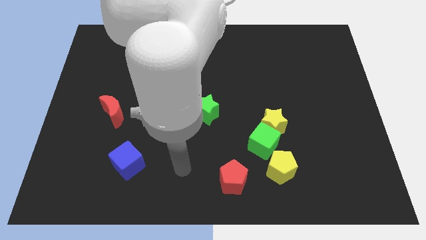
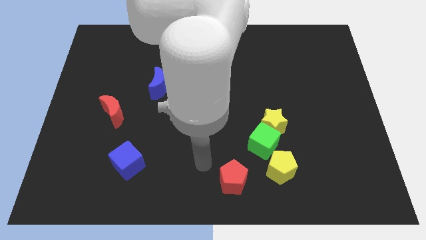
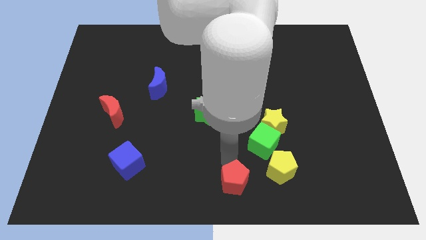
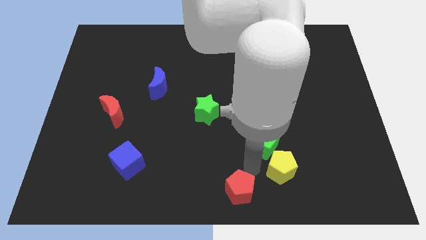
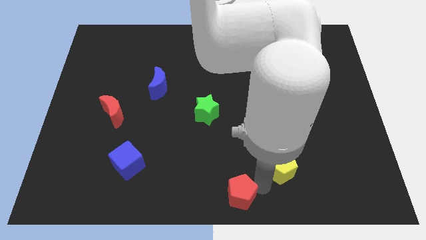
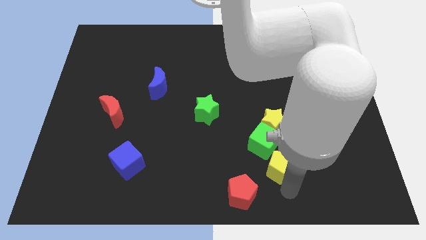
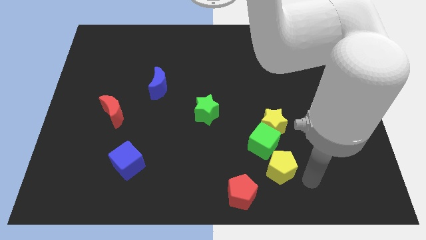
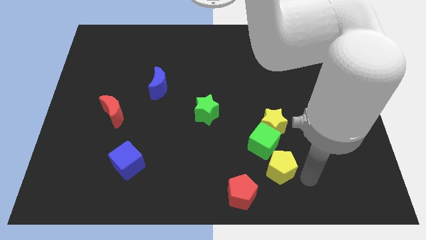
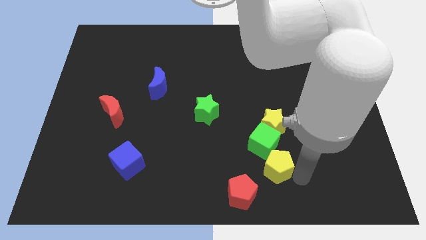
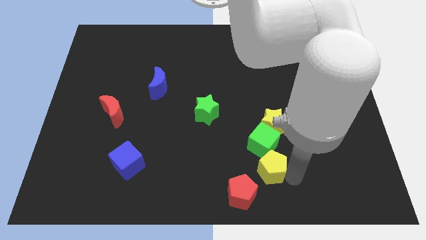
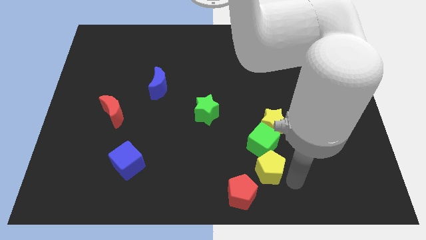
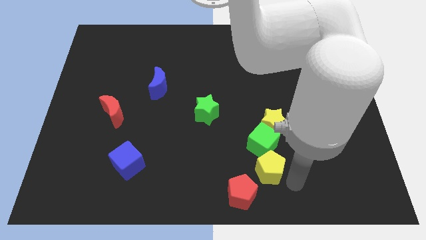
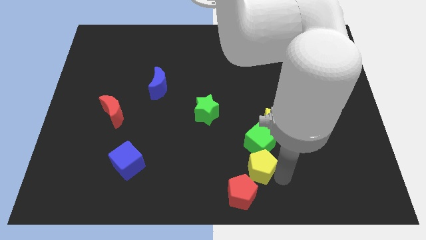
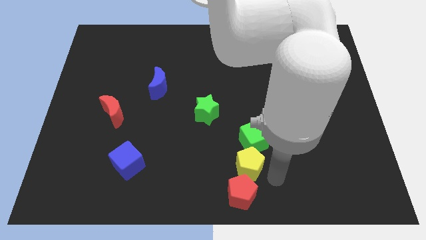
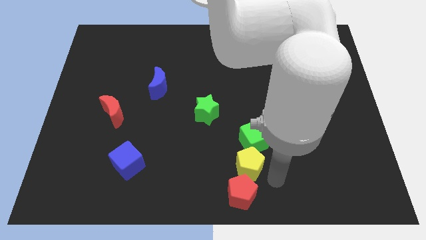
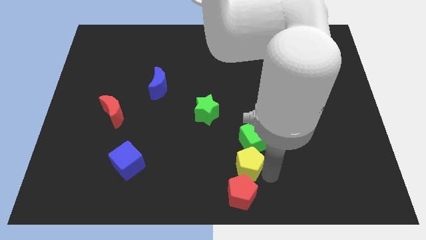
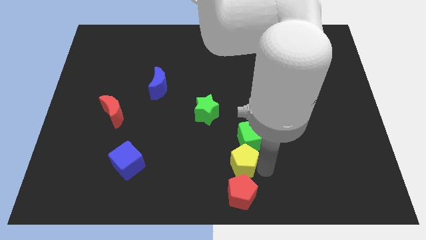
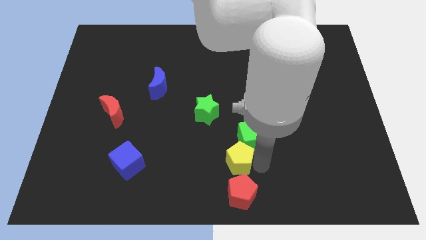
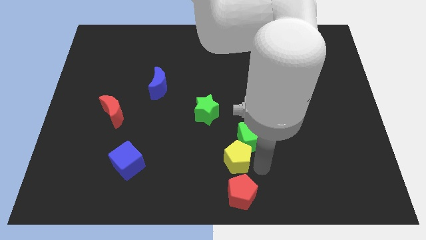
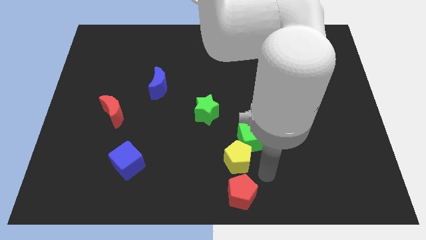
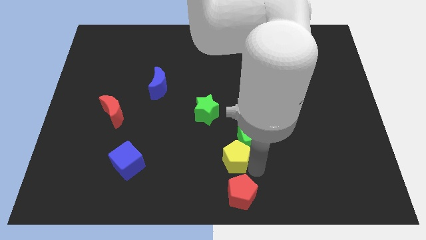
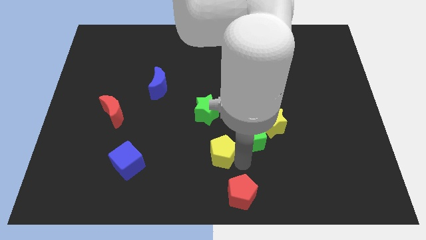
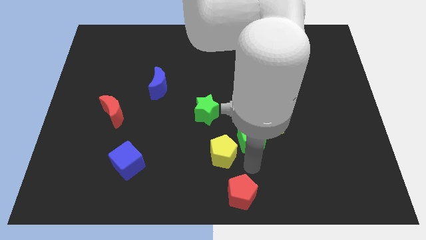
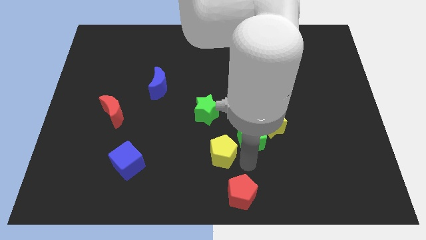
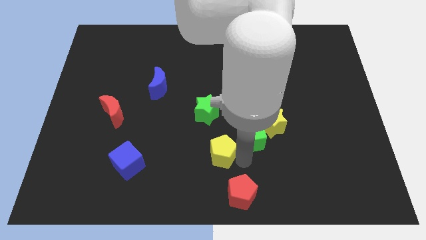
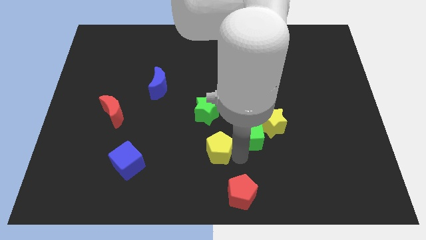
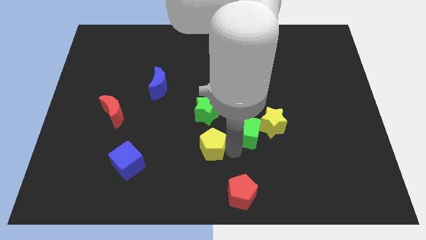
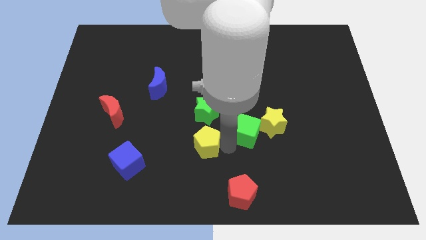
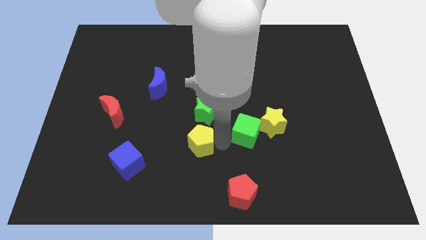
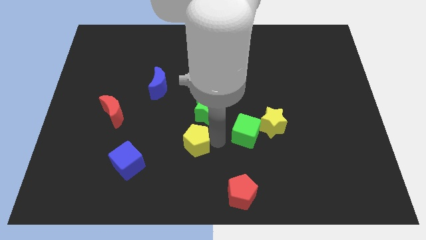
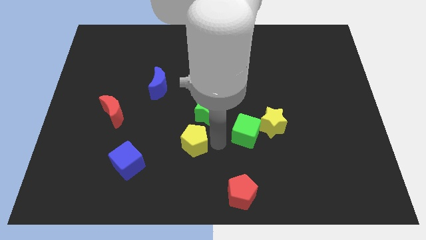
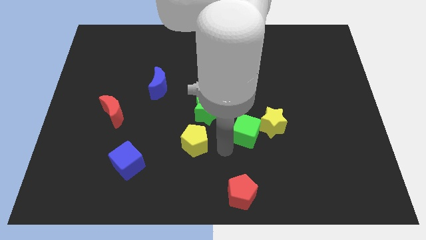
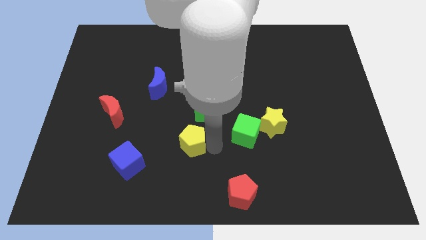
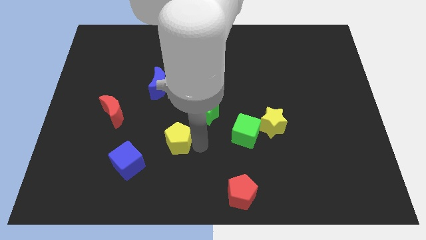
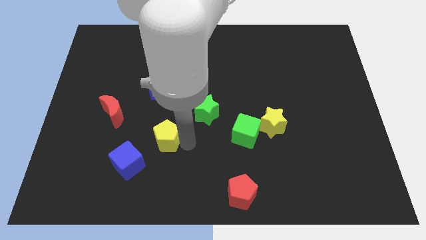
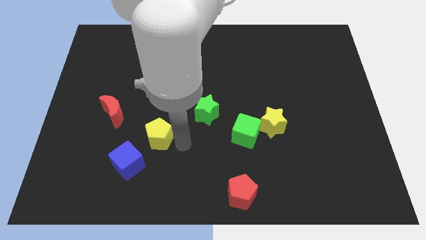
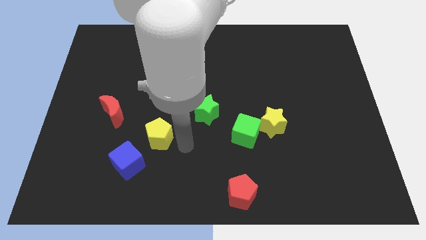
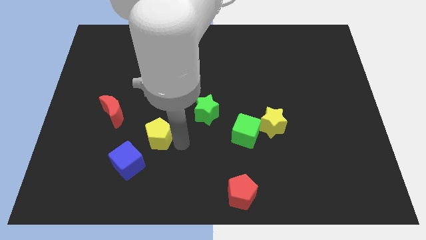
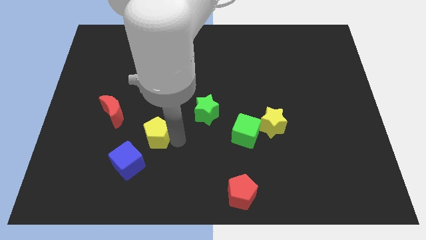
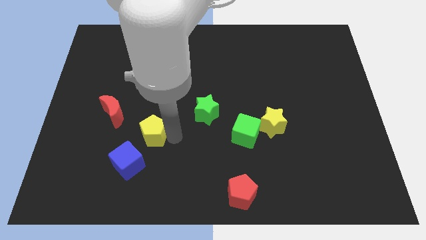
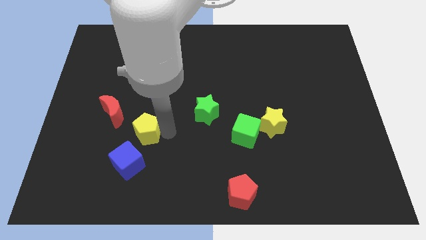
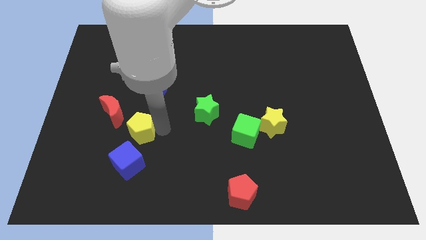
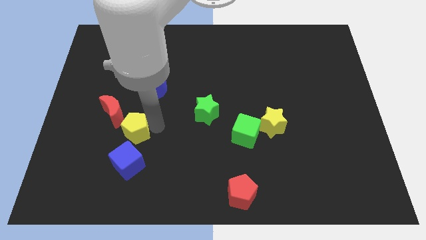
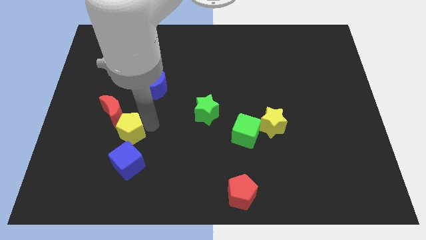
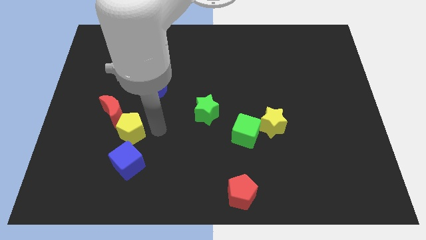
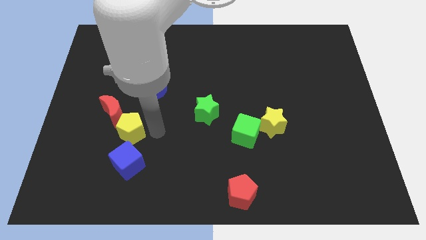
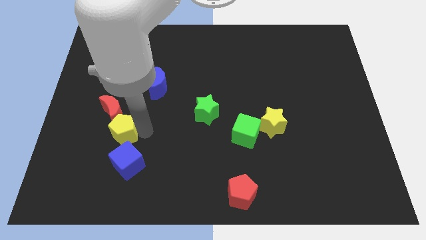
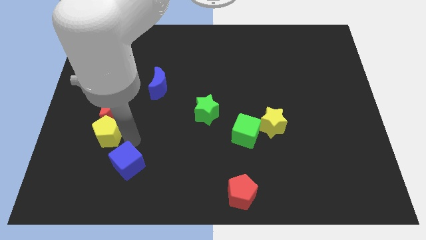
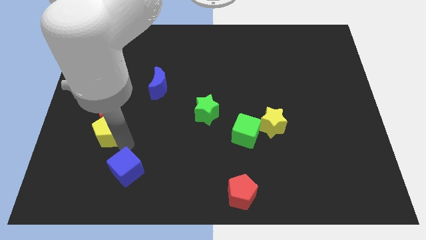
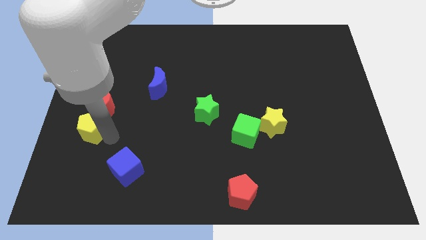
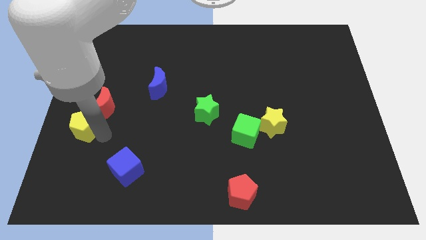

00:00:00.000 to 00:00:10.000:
slide the yellow pentagon to the center left

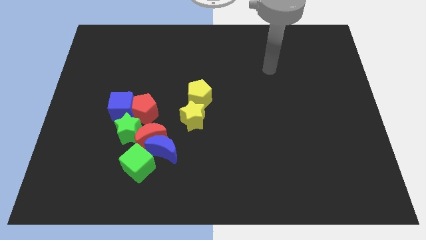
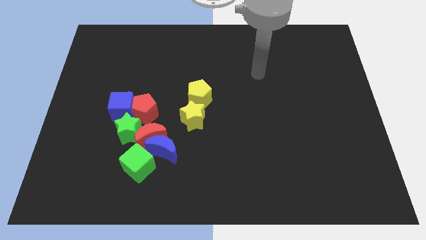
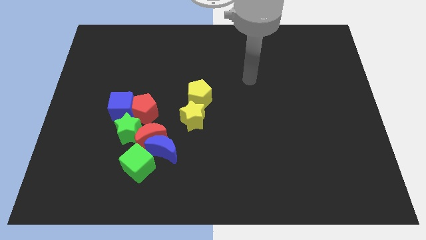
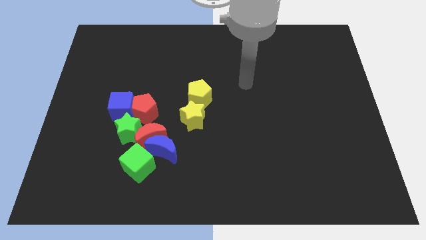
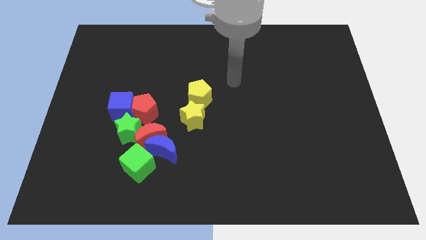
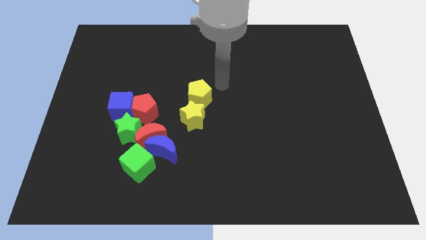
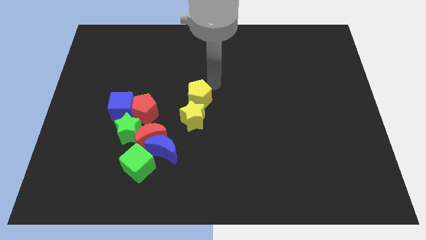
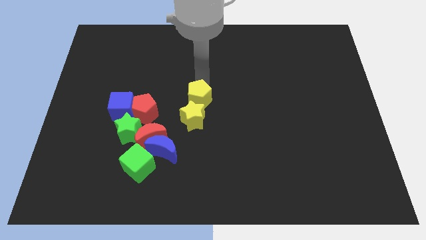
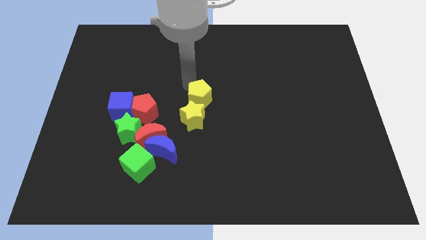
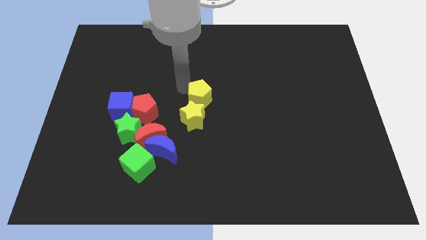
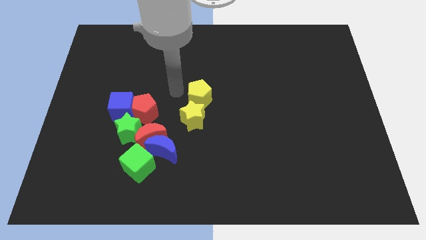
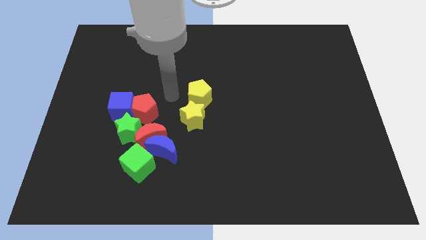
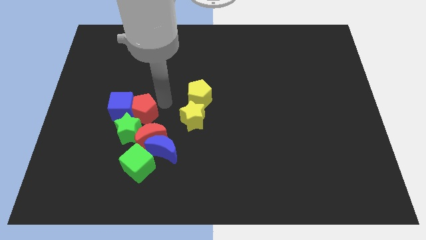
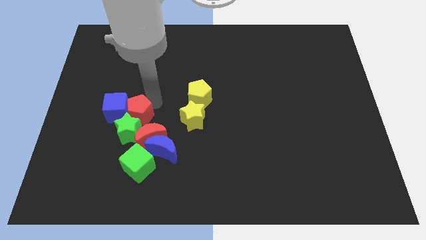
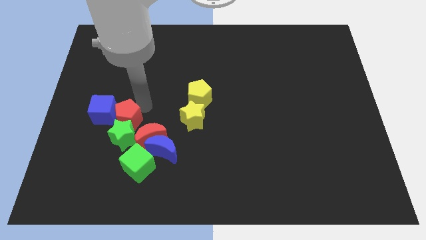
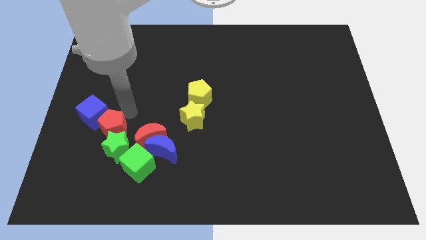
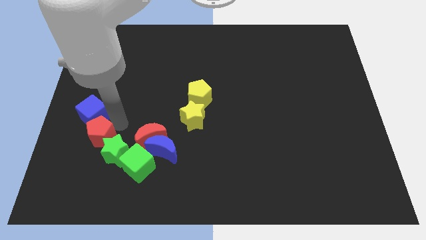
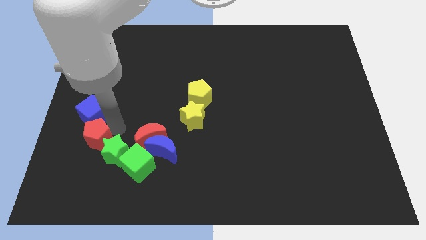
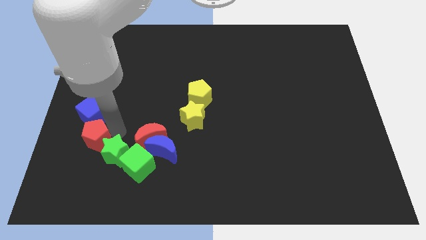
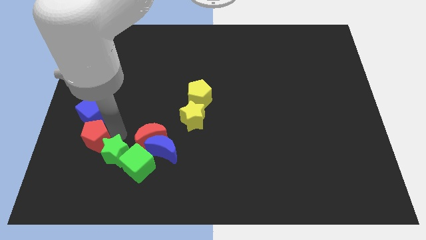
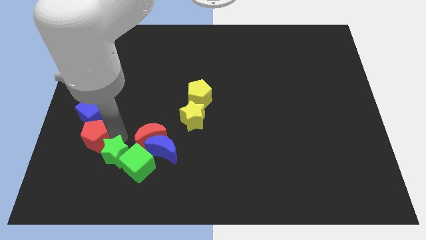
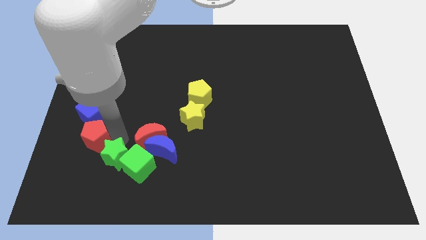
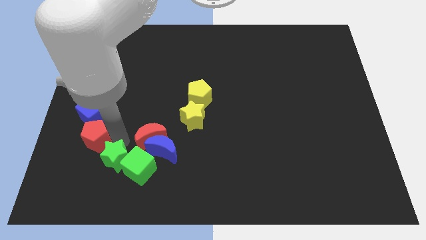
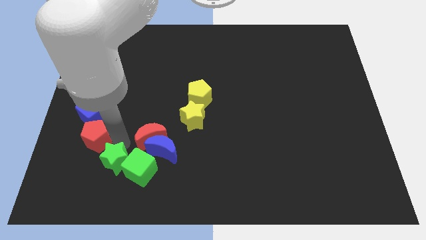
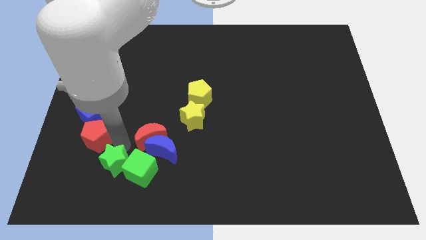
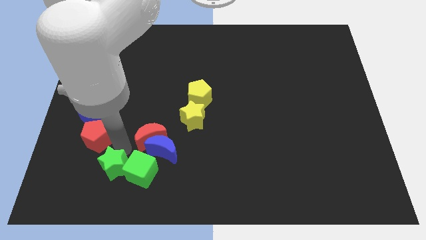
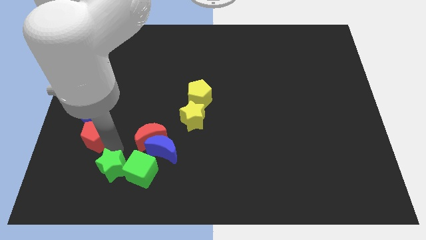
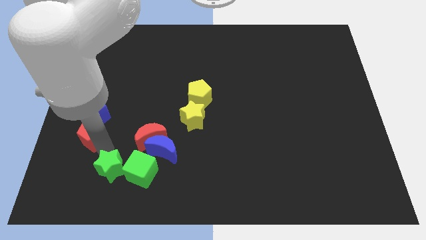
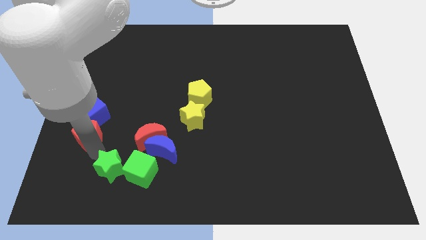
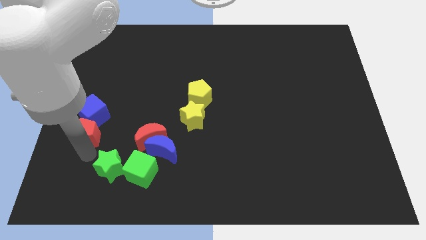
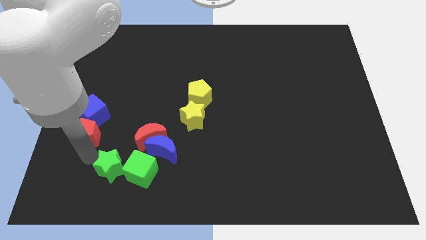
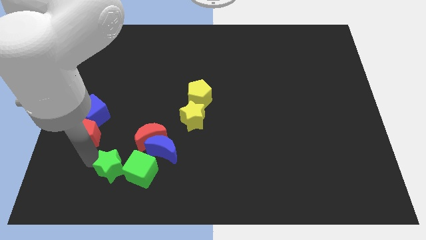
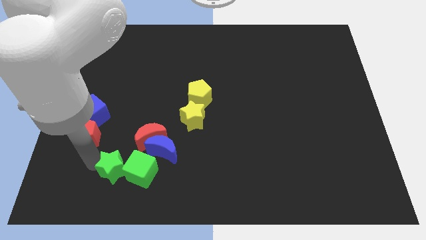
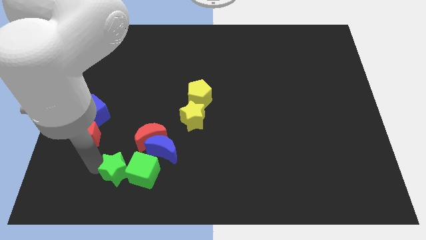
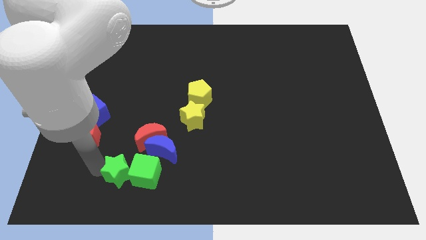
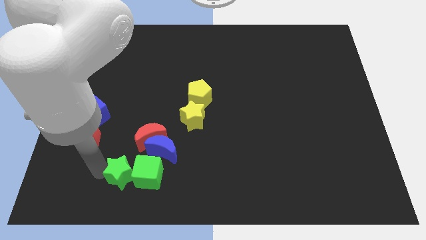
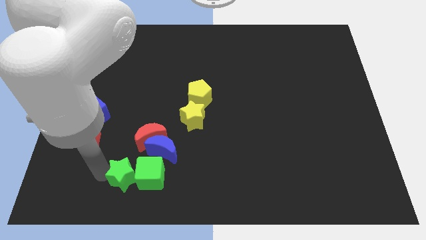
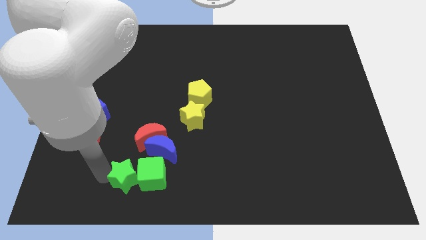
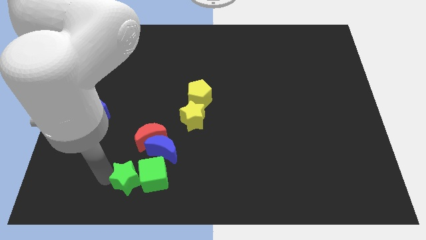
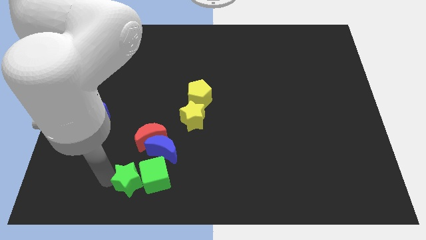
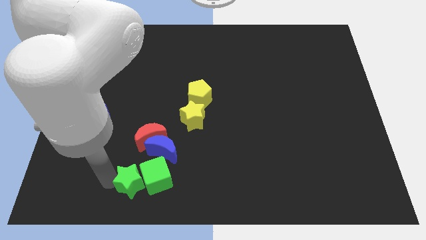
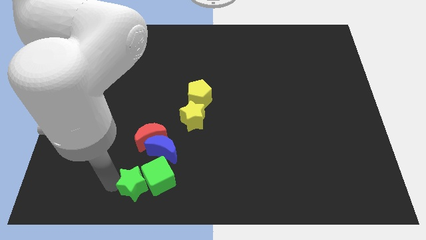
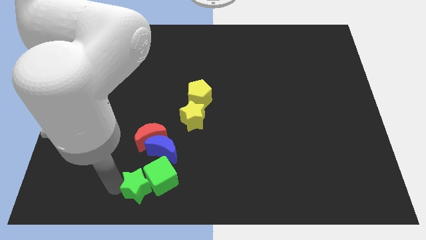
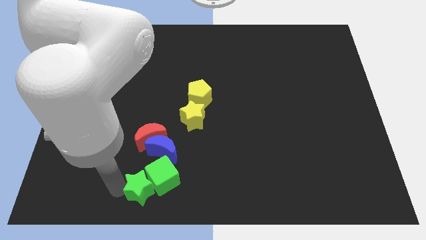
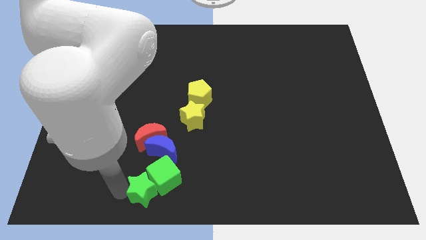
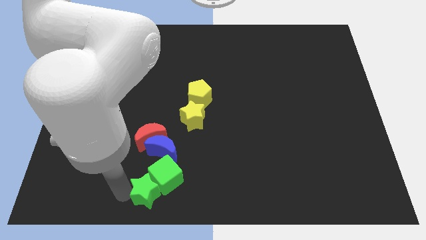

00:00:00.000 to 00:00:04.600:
move the green star to the bottom side
